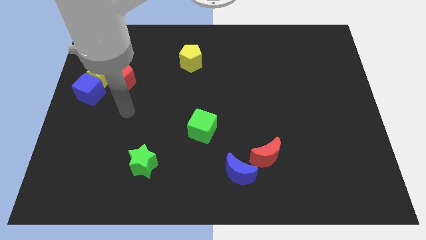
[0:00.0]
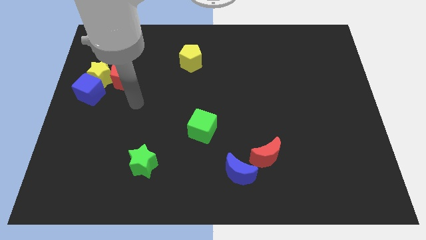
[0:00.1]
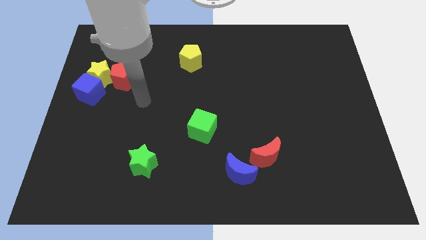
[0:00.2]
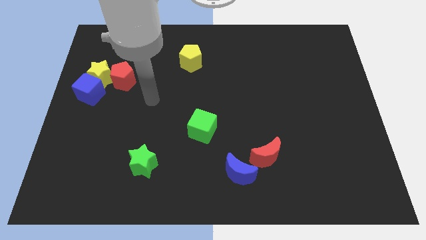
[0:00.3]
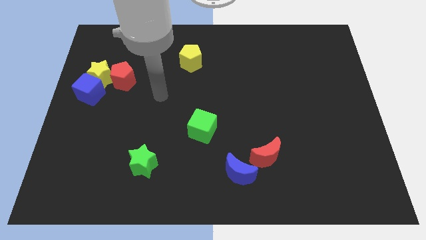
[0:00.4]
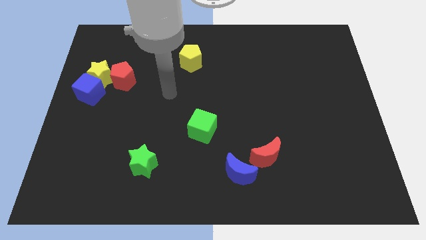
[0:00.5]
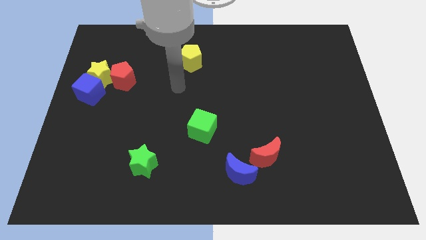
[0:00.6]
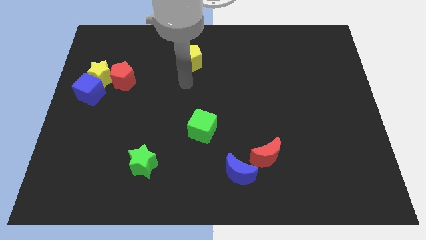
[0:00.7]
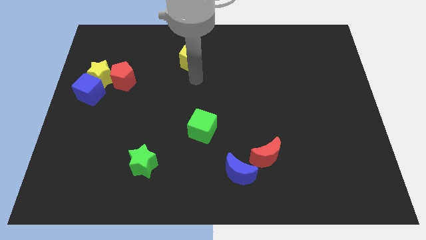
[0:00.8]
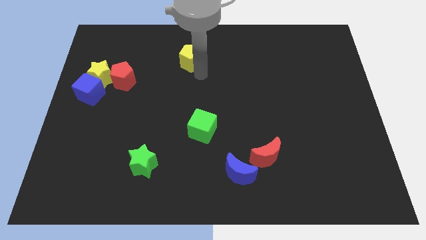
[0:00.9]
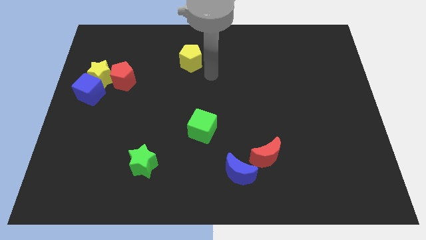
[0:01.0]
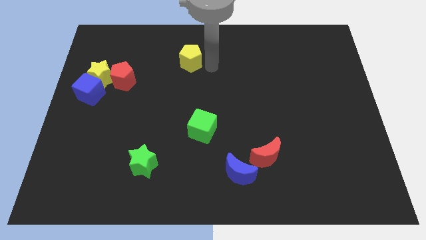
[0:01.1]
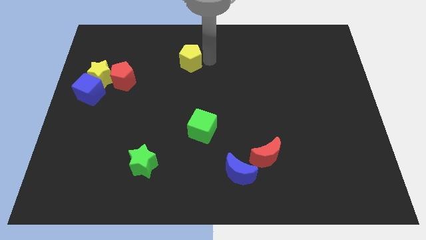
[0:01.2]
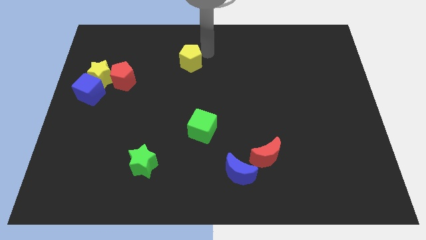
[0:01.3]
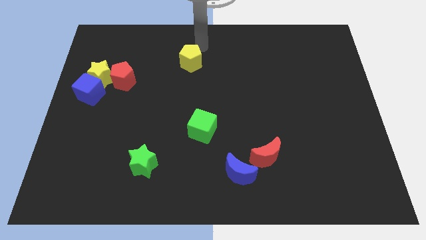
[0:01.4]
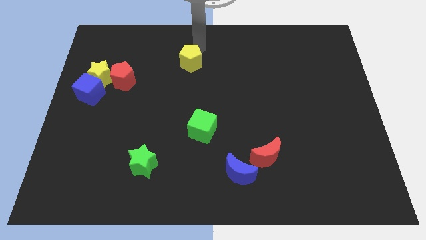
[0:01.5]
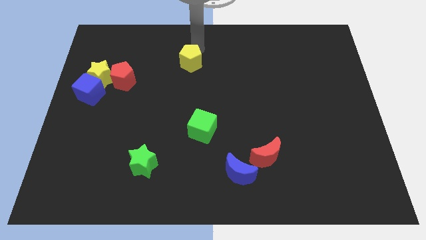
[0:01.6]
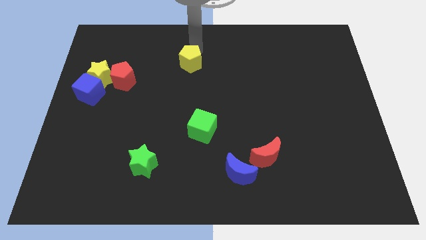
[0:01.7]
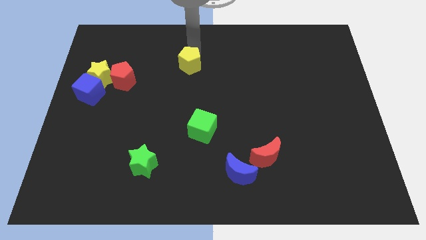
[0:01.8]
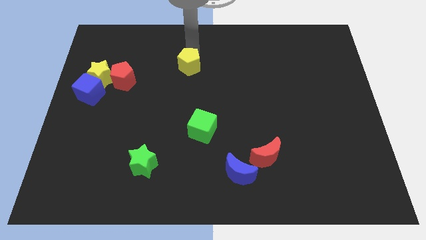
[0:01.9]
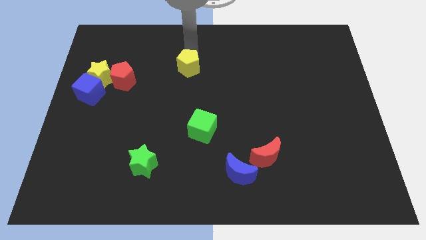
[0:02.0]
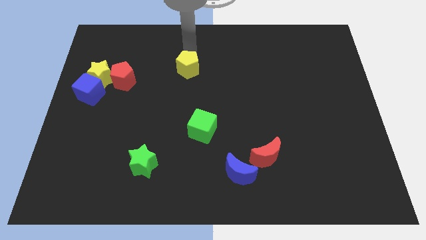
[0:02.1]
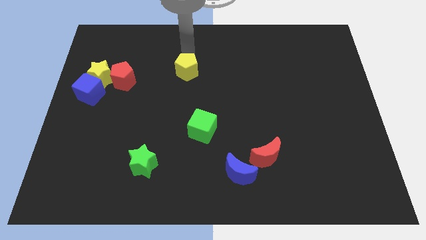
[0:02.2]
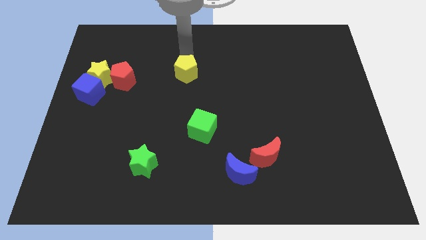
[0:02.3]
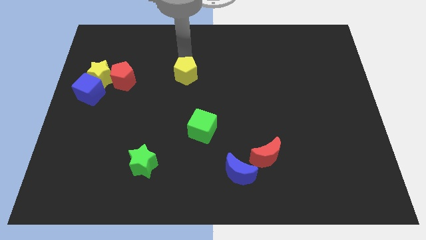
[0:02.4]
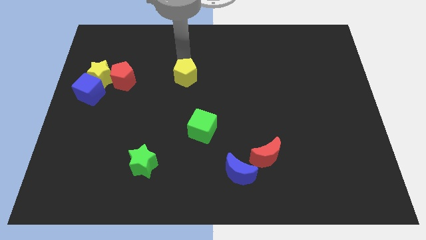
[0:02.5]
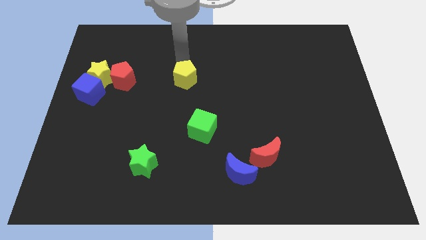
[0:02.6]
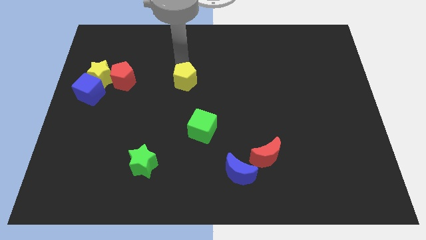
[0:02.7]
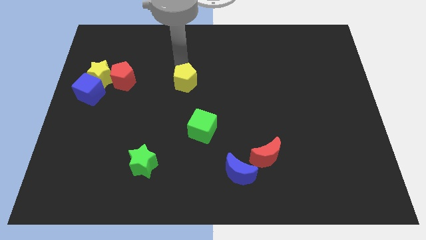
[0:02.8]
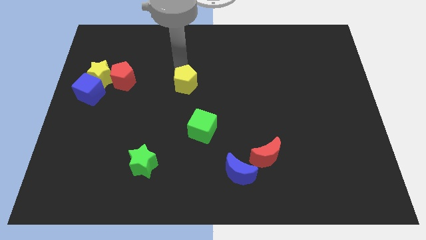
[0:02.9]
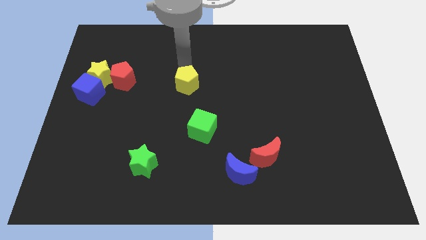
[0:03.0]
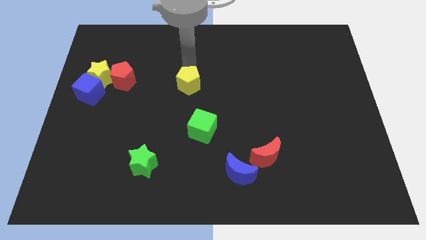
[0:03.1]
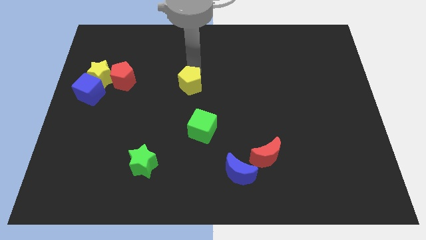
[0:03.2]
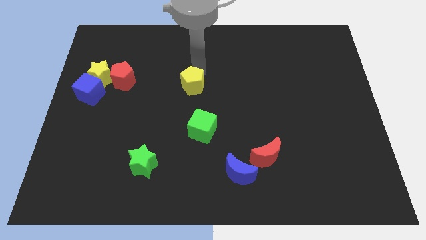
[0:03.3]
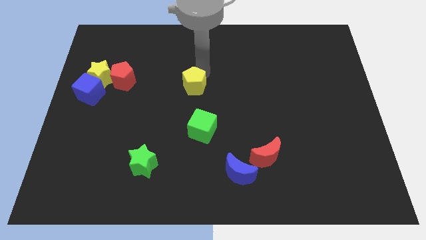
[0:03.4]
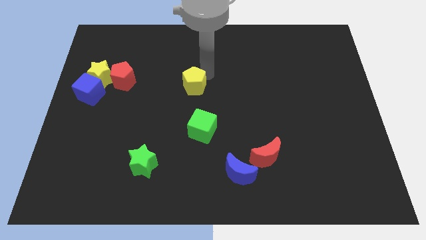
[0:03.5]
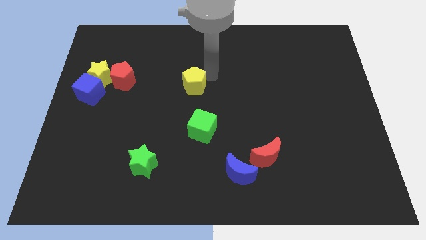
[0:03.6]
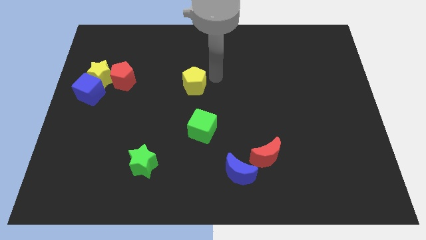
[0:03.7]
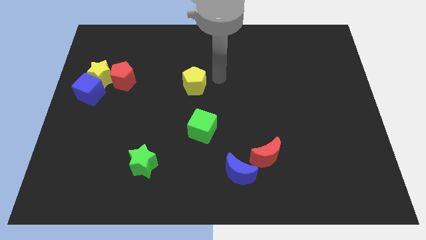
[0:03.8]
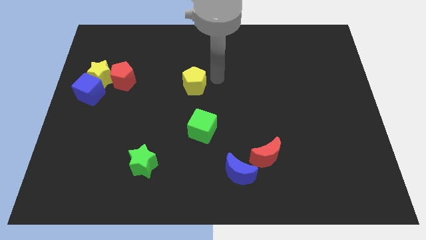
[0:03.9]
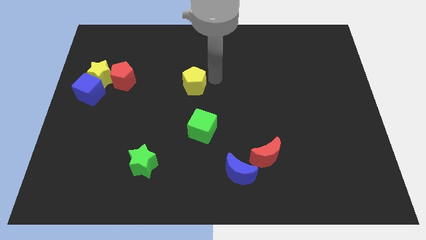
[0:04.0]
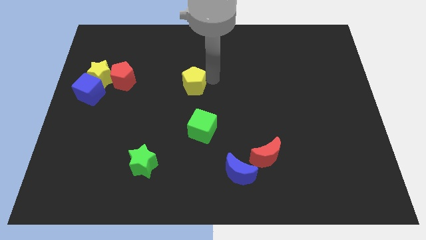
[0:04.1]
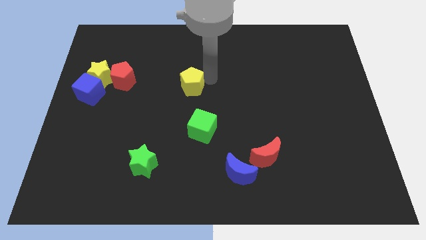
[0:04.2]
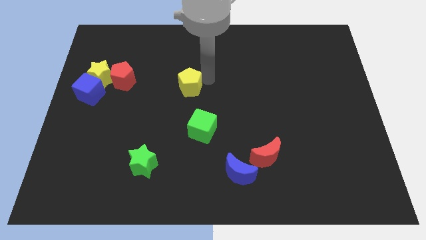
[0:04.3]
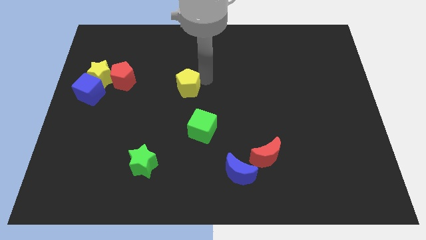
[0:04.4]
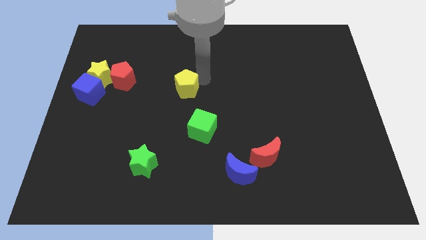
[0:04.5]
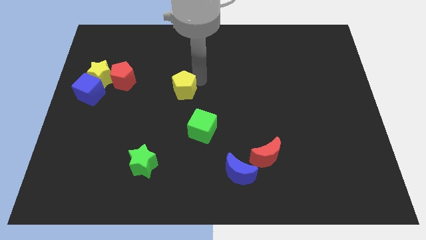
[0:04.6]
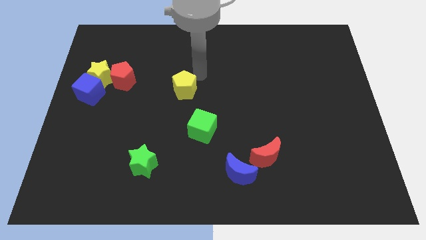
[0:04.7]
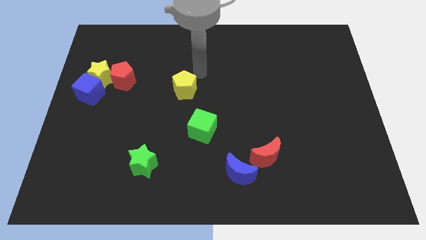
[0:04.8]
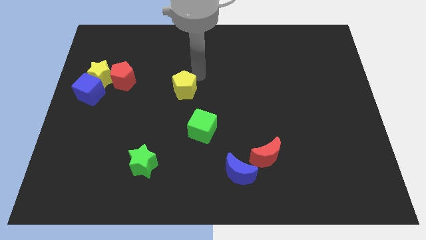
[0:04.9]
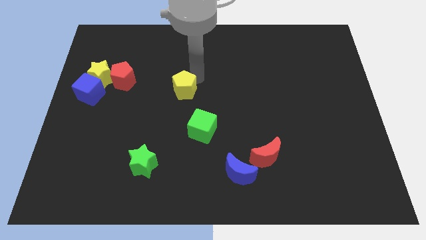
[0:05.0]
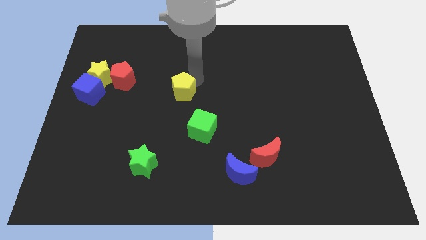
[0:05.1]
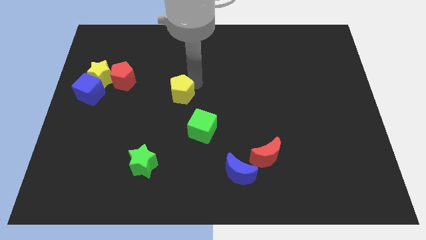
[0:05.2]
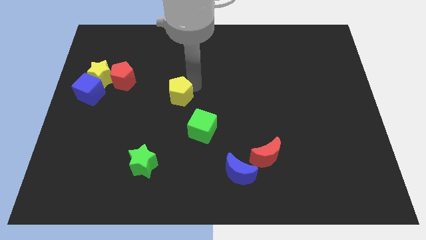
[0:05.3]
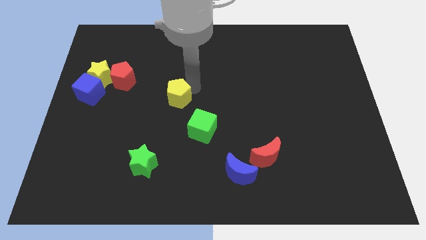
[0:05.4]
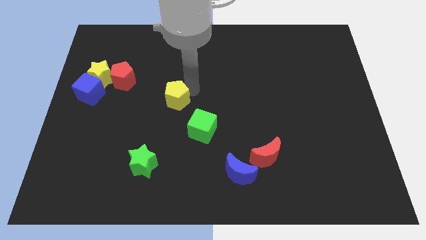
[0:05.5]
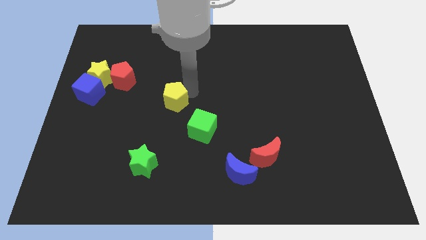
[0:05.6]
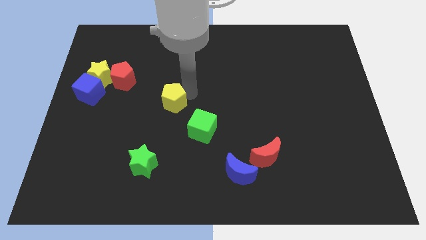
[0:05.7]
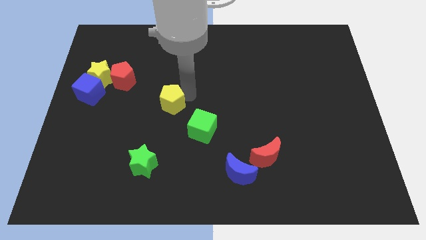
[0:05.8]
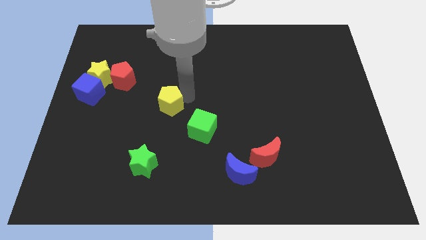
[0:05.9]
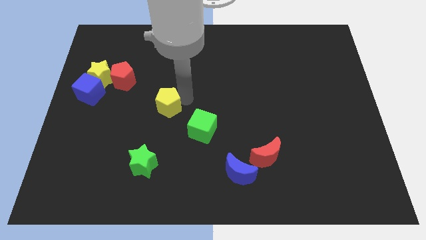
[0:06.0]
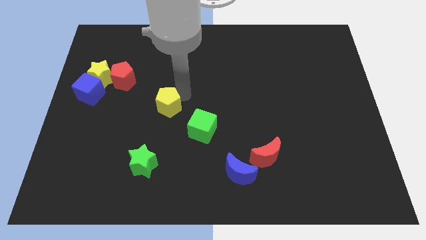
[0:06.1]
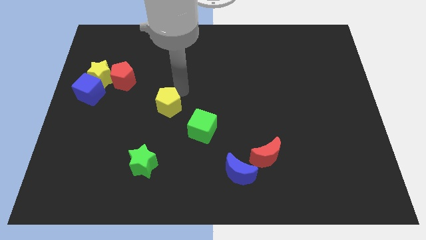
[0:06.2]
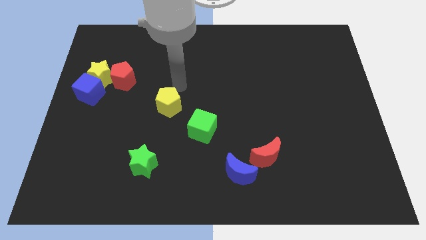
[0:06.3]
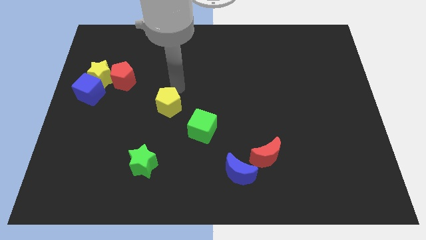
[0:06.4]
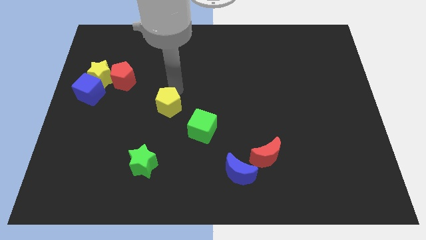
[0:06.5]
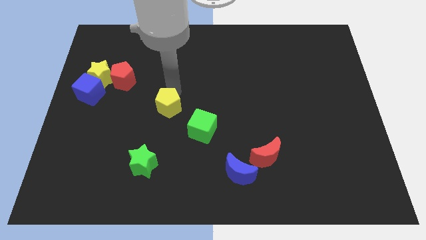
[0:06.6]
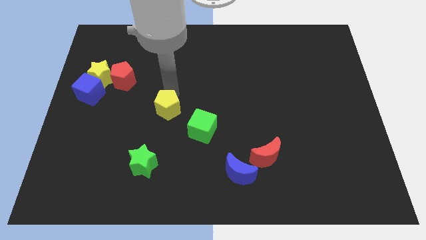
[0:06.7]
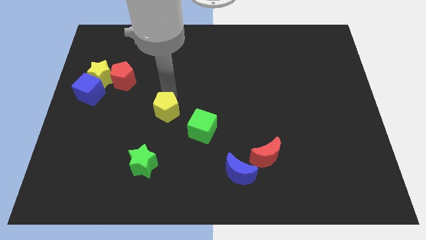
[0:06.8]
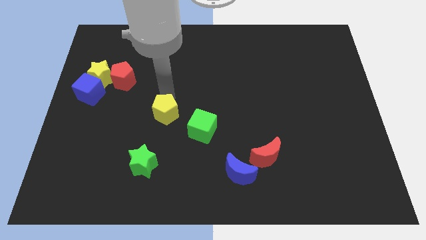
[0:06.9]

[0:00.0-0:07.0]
slide the yellow pentagon left of the green cube
